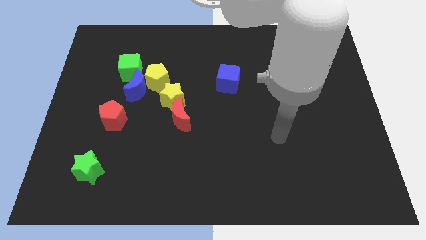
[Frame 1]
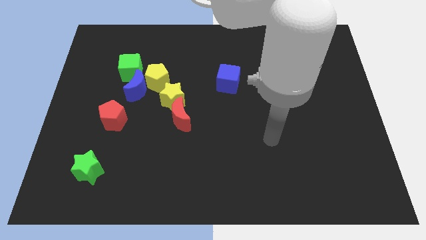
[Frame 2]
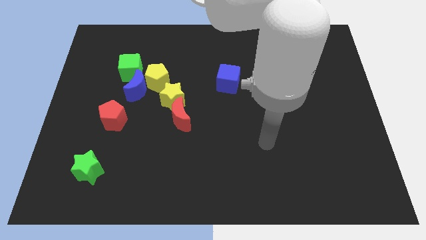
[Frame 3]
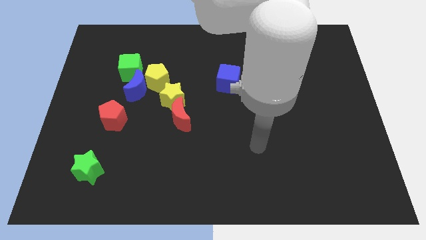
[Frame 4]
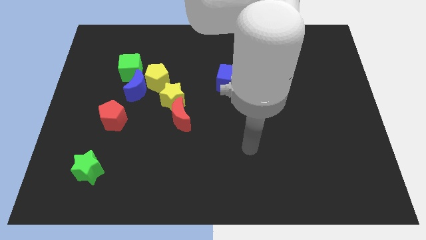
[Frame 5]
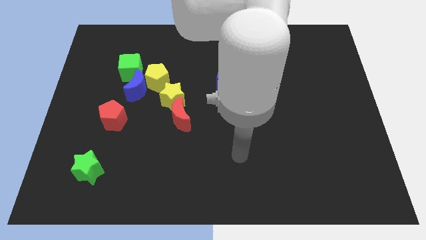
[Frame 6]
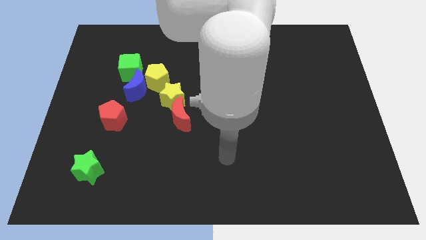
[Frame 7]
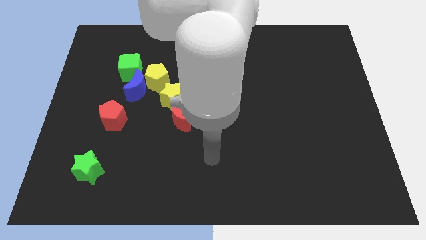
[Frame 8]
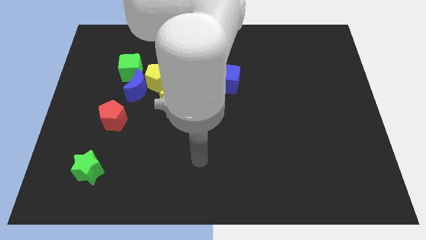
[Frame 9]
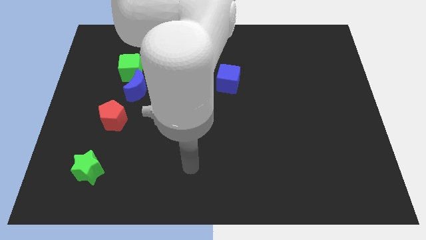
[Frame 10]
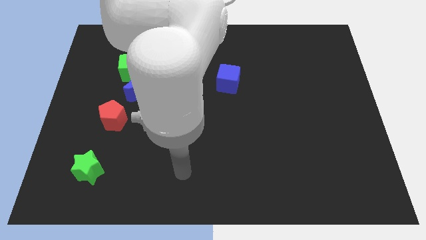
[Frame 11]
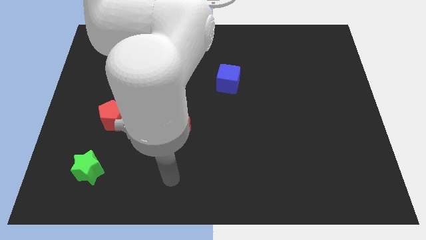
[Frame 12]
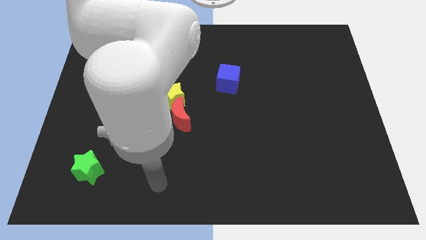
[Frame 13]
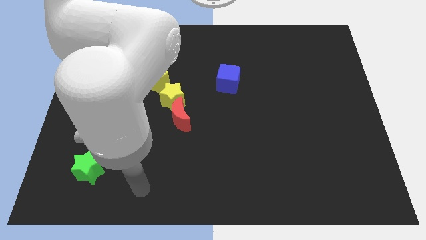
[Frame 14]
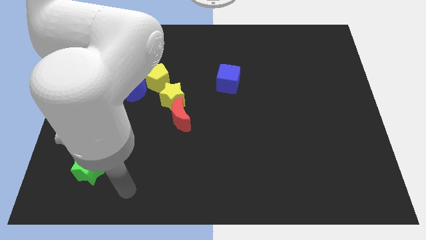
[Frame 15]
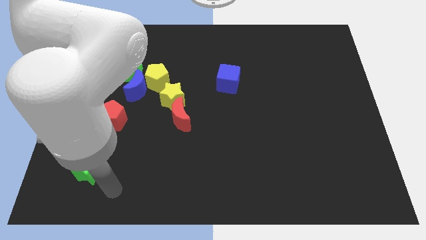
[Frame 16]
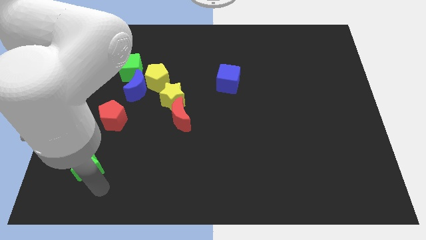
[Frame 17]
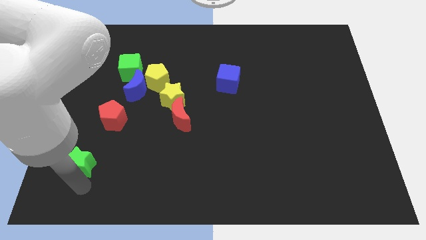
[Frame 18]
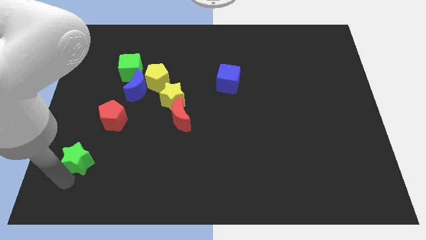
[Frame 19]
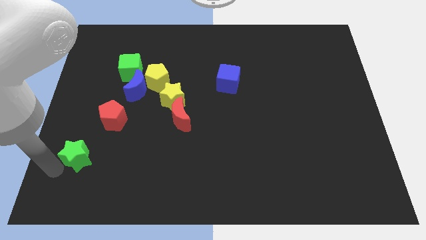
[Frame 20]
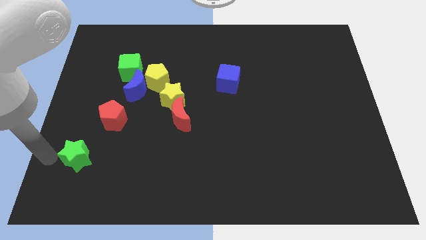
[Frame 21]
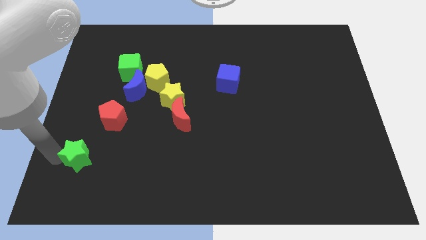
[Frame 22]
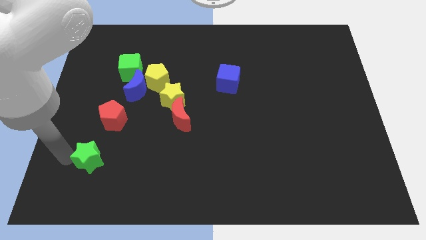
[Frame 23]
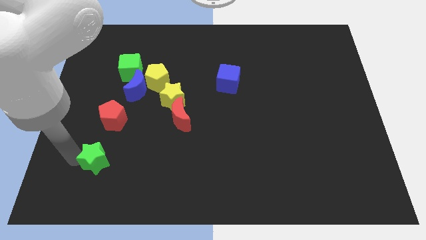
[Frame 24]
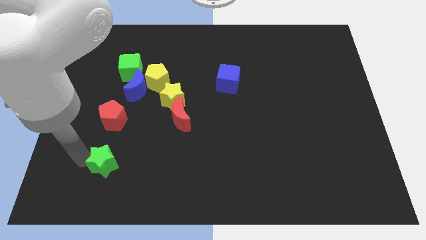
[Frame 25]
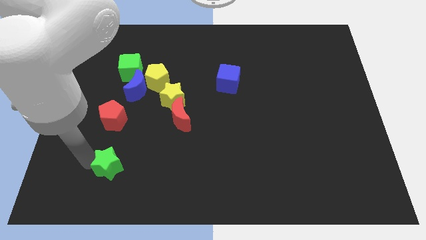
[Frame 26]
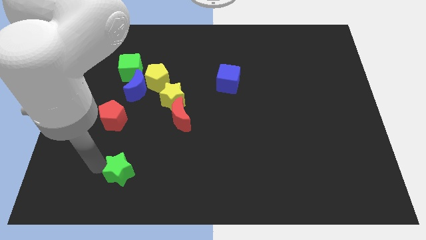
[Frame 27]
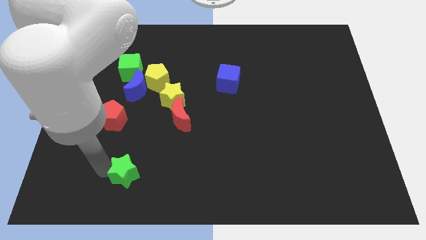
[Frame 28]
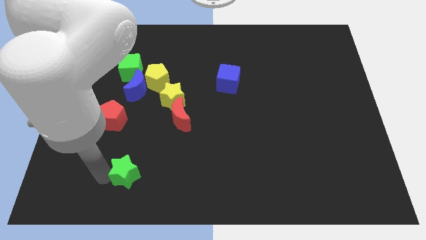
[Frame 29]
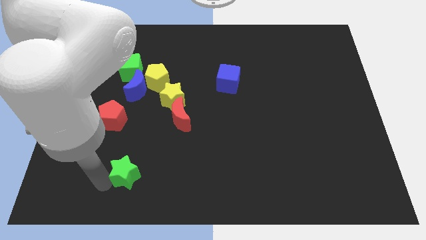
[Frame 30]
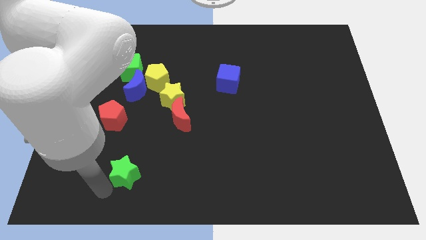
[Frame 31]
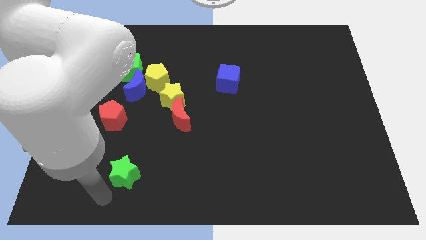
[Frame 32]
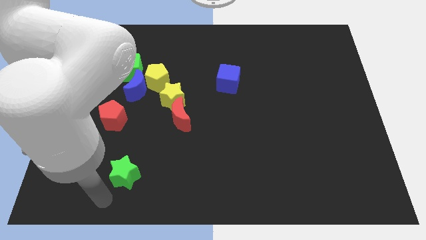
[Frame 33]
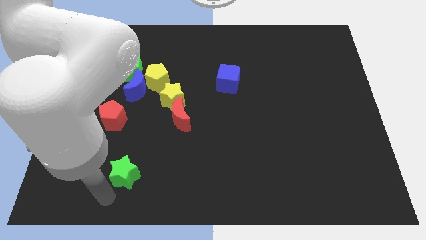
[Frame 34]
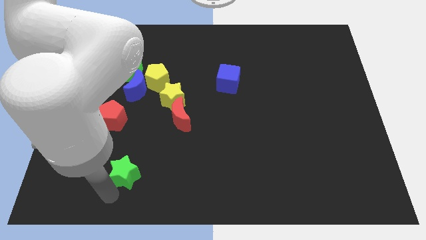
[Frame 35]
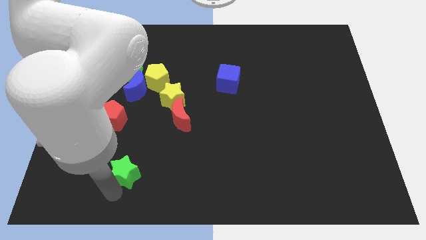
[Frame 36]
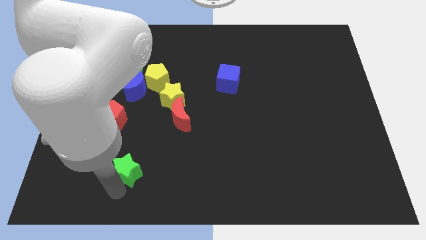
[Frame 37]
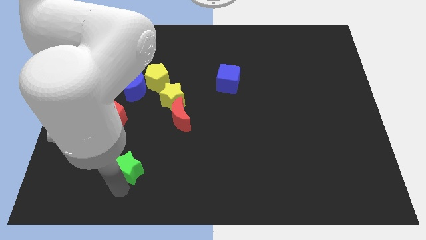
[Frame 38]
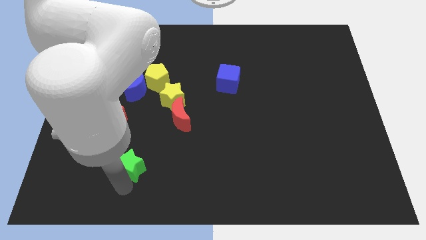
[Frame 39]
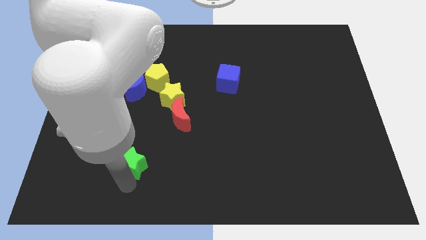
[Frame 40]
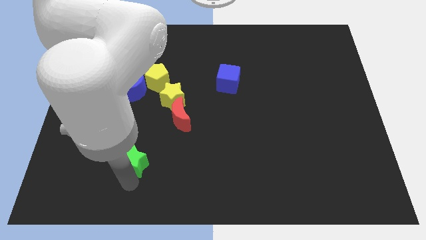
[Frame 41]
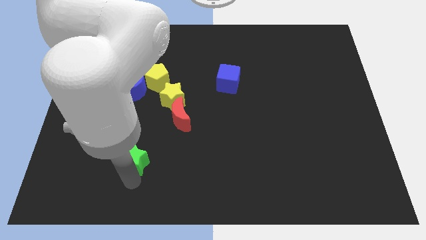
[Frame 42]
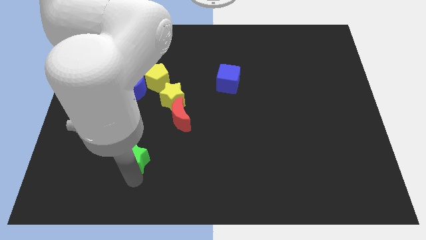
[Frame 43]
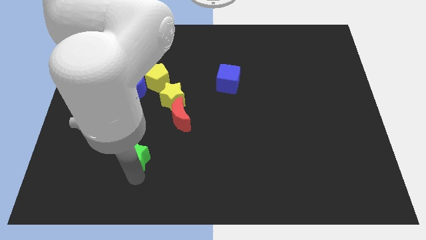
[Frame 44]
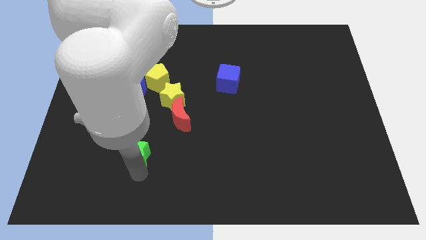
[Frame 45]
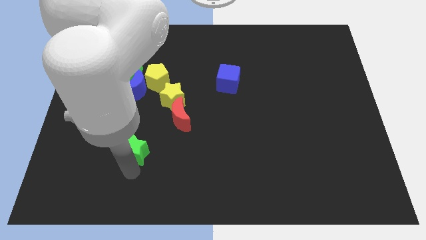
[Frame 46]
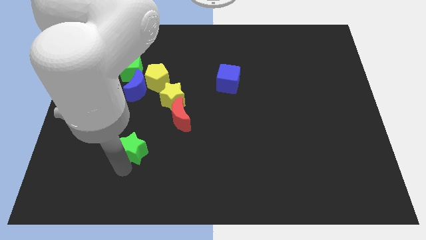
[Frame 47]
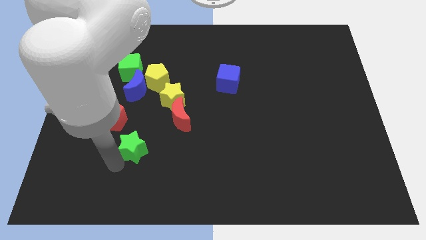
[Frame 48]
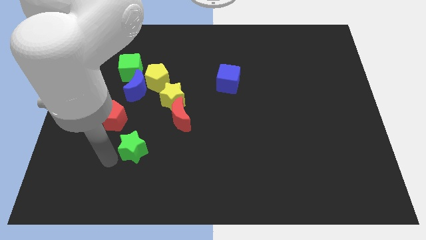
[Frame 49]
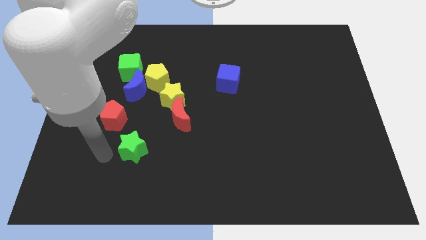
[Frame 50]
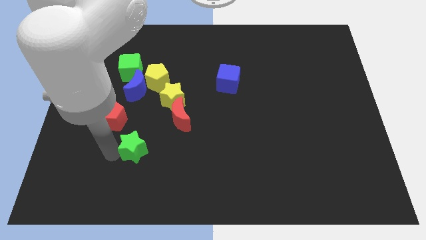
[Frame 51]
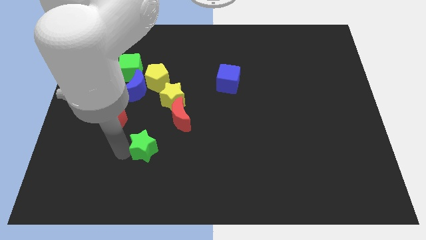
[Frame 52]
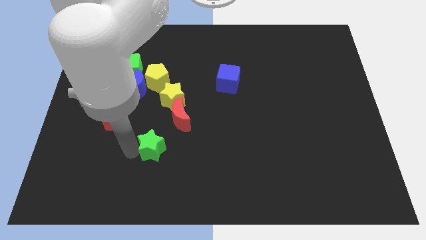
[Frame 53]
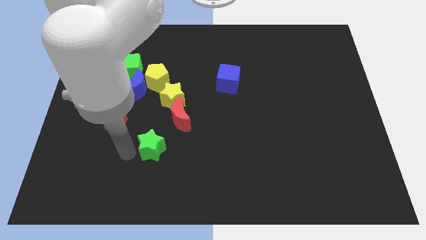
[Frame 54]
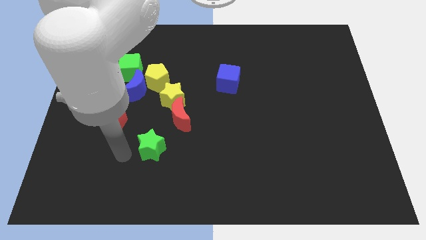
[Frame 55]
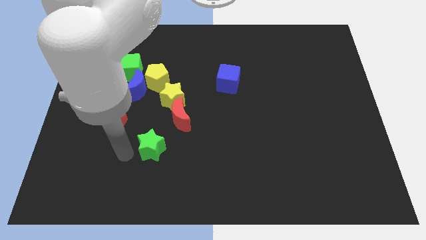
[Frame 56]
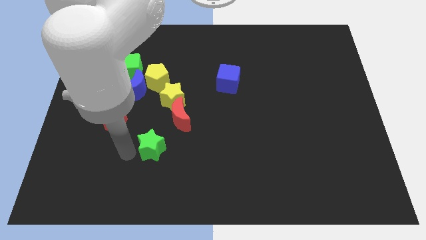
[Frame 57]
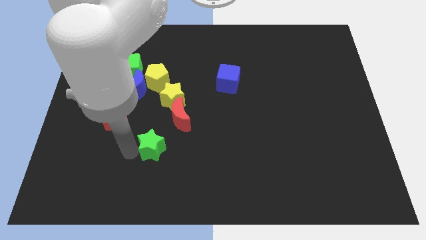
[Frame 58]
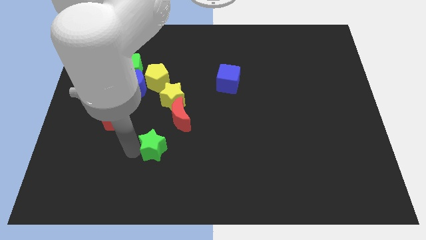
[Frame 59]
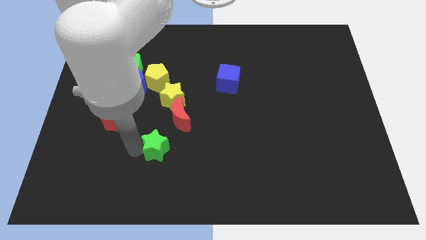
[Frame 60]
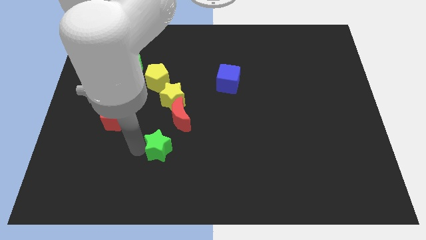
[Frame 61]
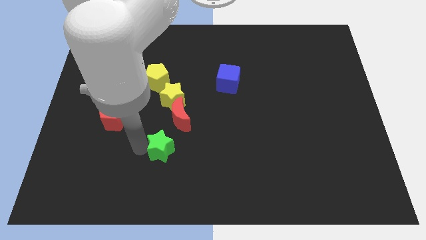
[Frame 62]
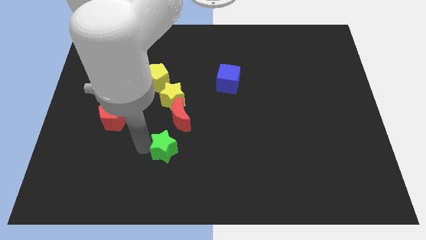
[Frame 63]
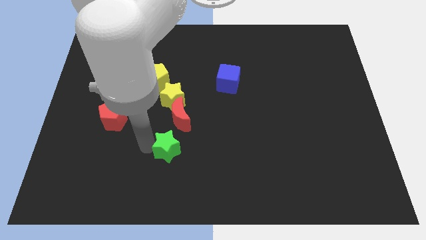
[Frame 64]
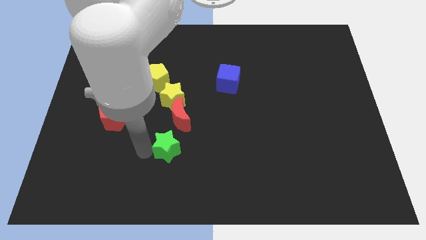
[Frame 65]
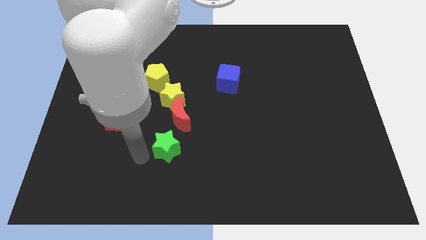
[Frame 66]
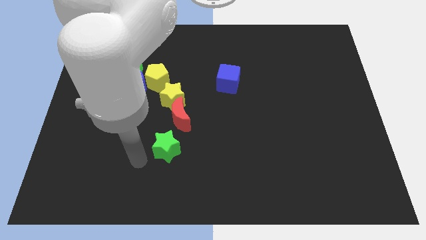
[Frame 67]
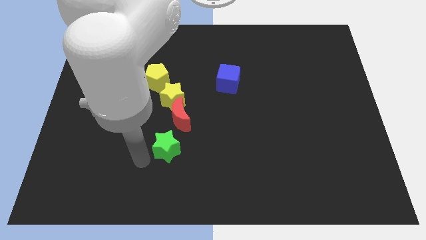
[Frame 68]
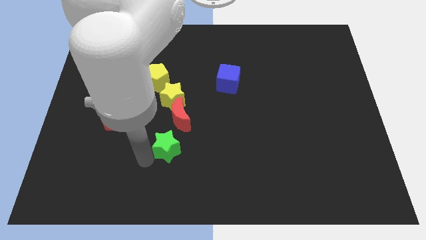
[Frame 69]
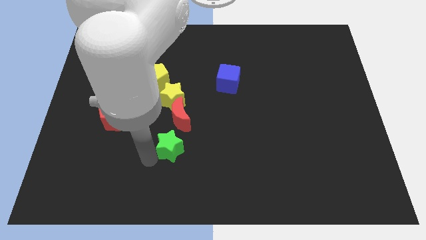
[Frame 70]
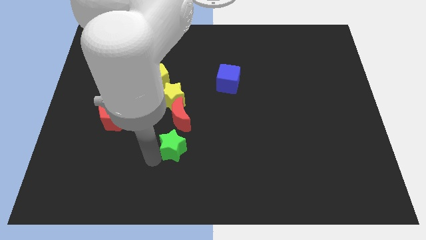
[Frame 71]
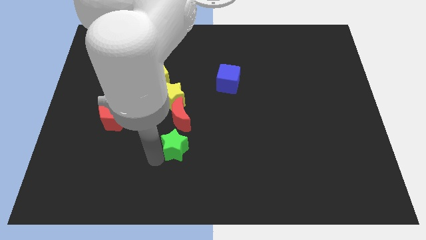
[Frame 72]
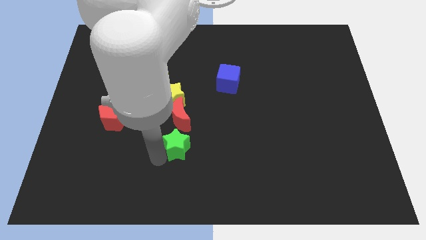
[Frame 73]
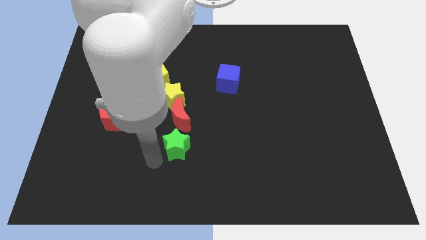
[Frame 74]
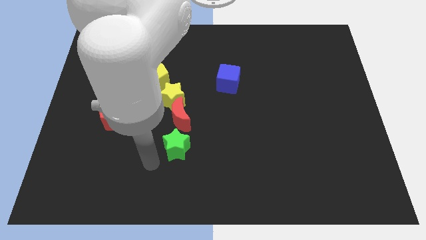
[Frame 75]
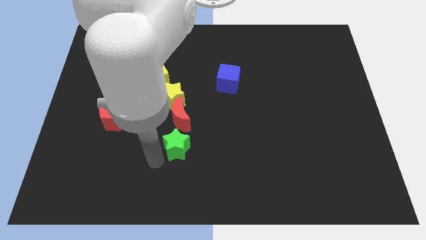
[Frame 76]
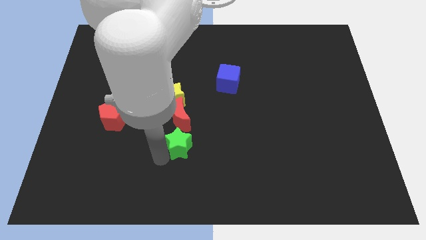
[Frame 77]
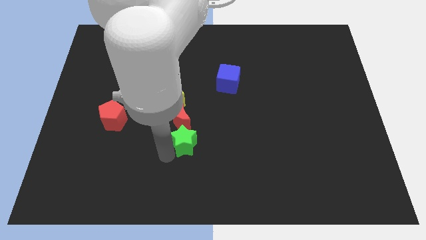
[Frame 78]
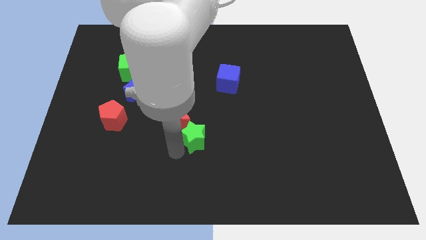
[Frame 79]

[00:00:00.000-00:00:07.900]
slide the green star to the center of the board

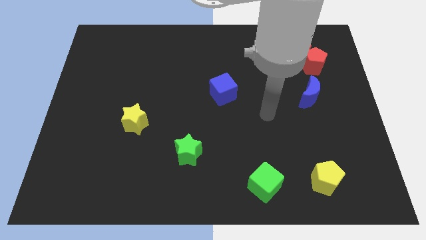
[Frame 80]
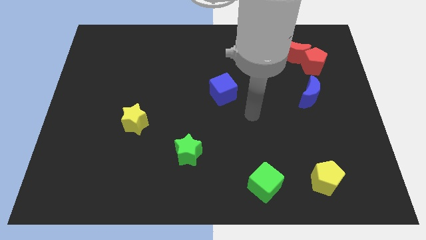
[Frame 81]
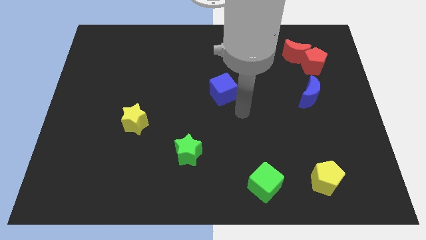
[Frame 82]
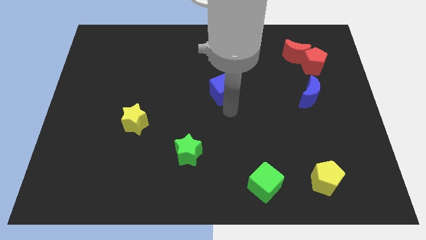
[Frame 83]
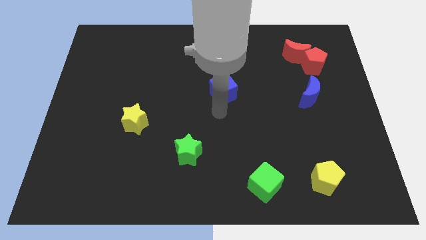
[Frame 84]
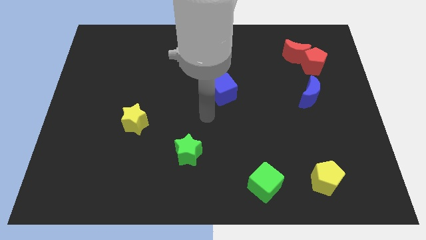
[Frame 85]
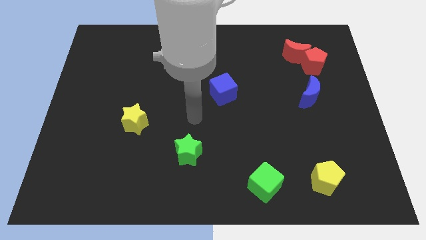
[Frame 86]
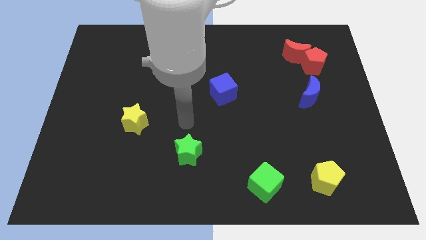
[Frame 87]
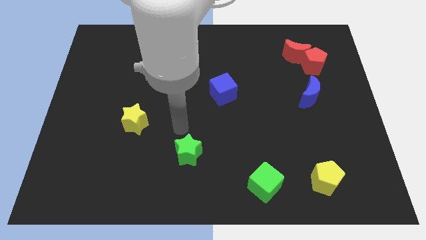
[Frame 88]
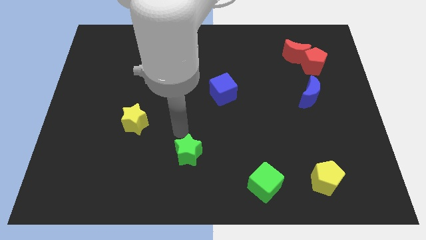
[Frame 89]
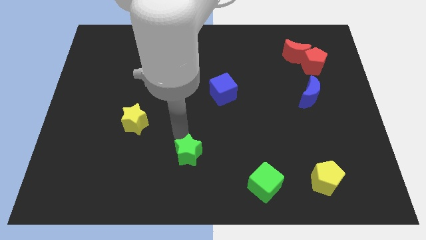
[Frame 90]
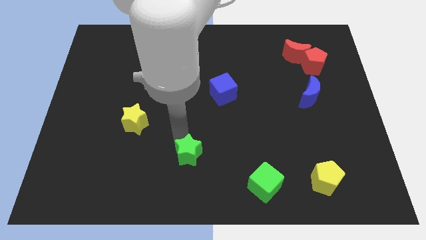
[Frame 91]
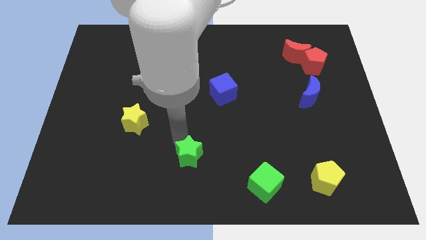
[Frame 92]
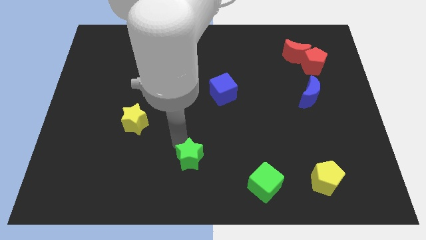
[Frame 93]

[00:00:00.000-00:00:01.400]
move the green star to the bottom side
